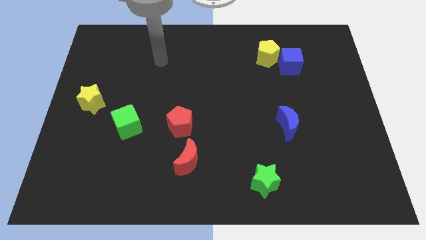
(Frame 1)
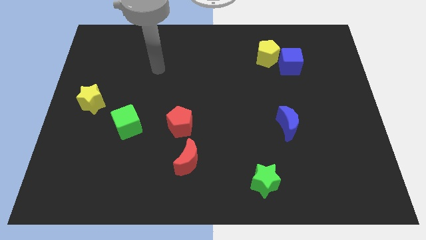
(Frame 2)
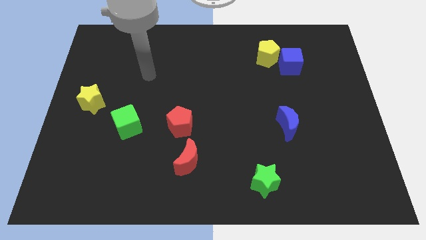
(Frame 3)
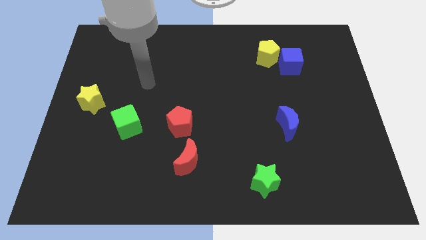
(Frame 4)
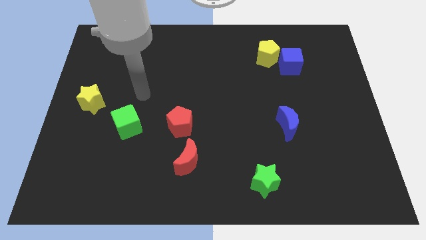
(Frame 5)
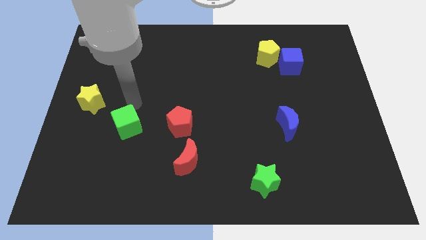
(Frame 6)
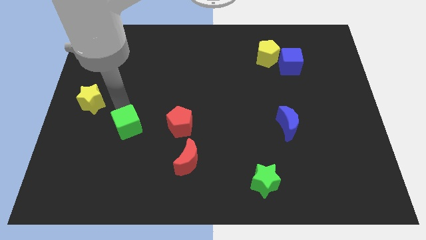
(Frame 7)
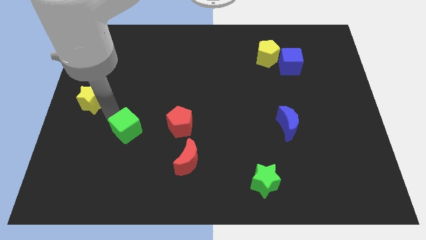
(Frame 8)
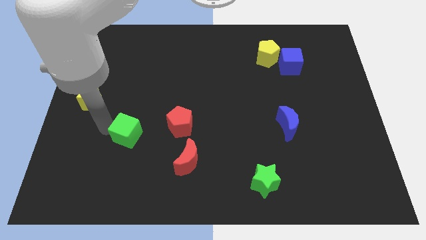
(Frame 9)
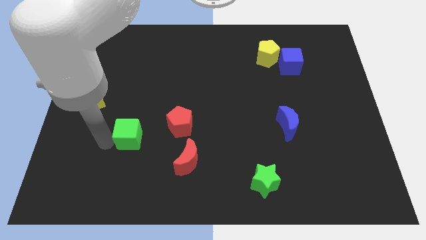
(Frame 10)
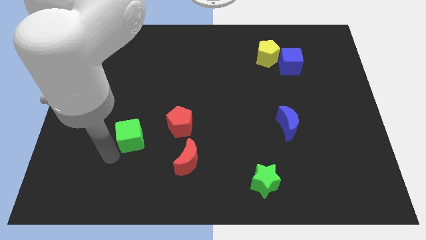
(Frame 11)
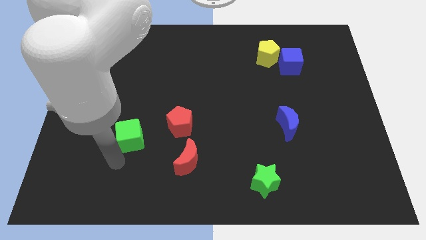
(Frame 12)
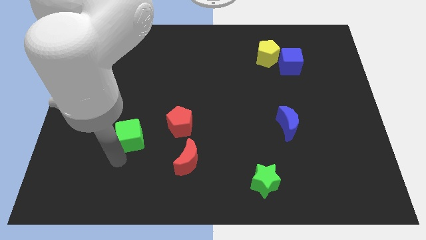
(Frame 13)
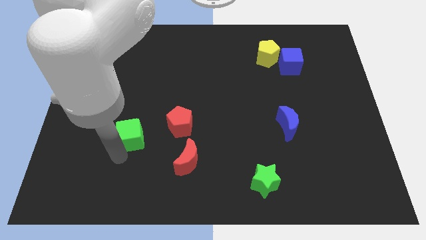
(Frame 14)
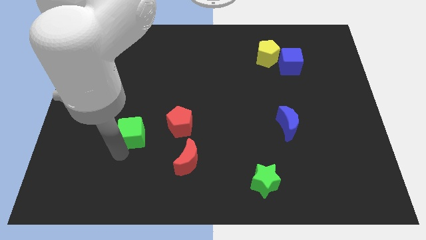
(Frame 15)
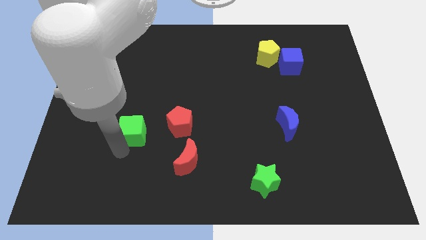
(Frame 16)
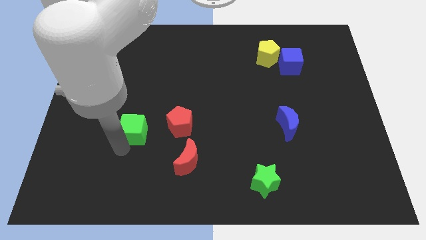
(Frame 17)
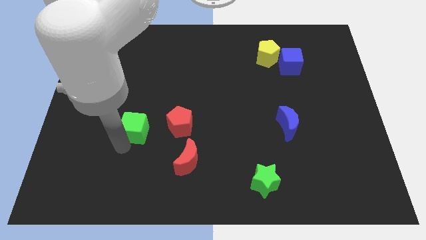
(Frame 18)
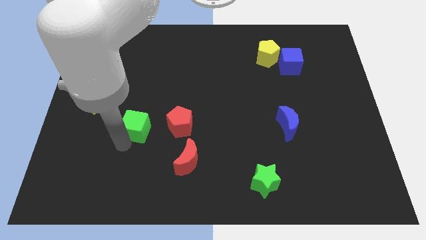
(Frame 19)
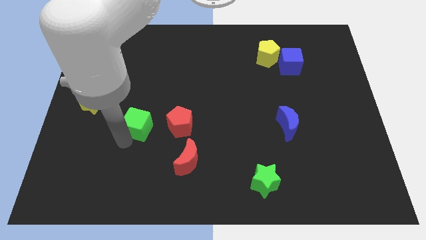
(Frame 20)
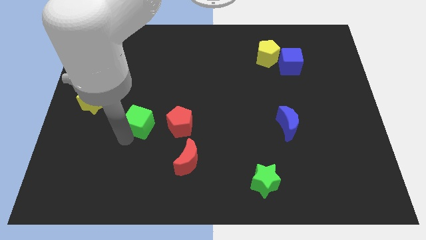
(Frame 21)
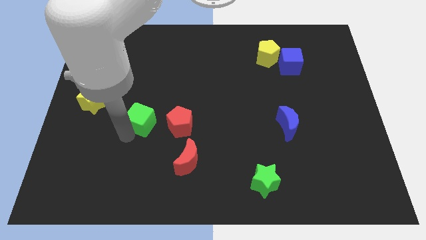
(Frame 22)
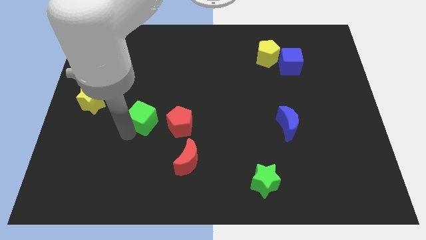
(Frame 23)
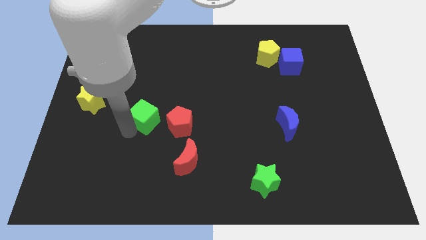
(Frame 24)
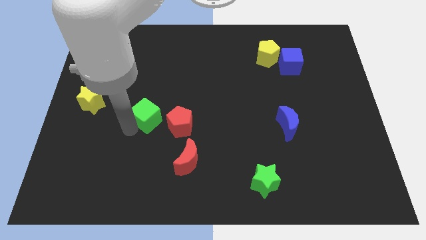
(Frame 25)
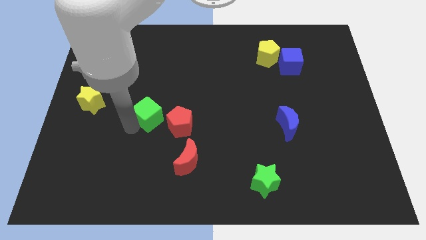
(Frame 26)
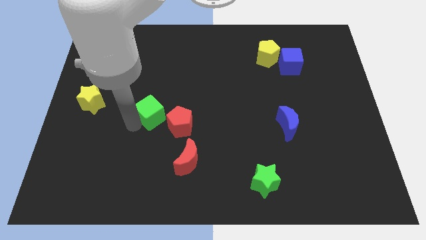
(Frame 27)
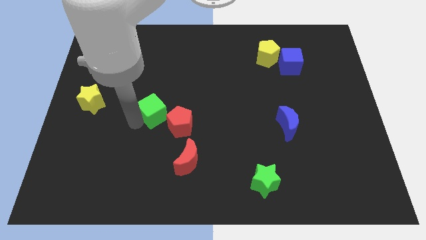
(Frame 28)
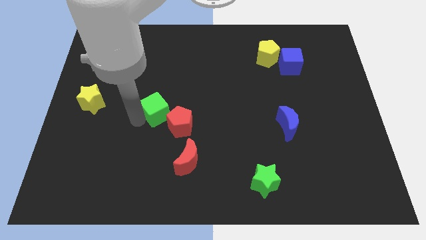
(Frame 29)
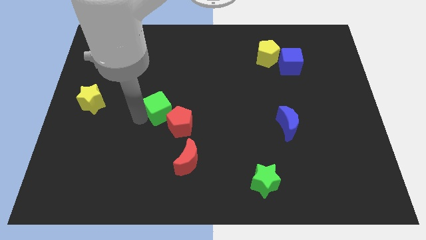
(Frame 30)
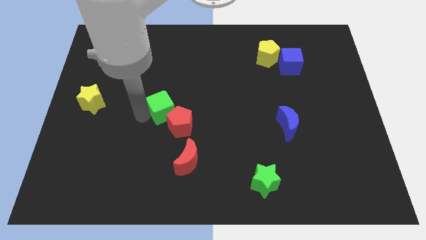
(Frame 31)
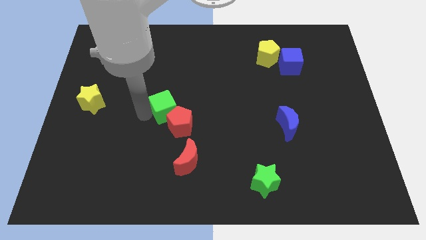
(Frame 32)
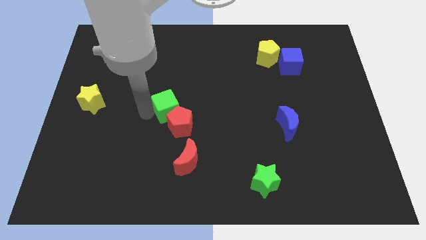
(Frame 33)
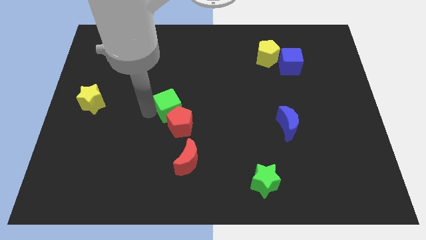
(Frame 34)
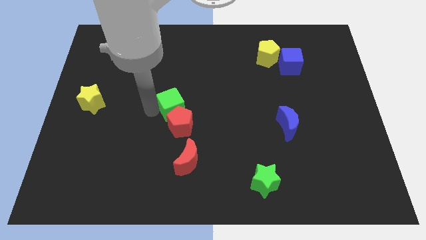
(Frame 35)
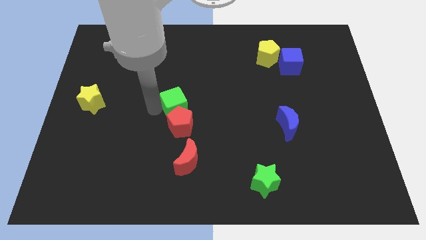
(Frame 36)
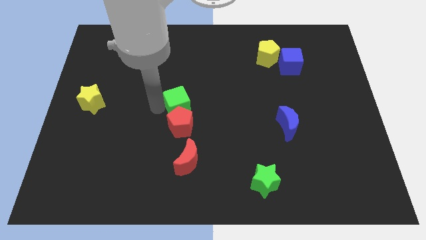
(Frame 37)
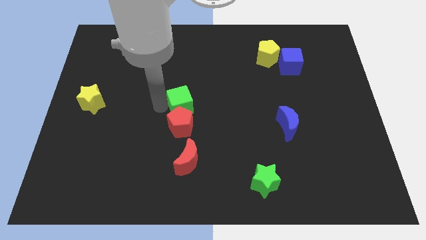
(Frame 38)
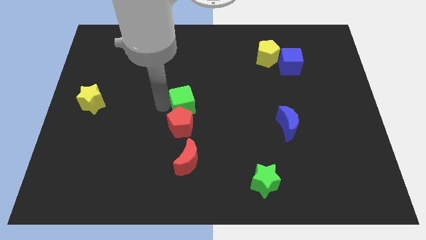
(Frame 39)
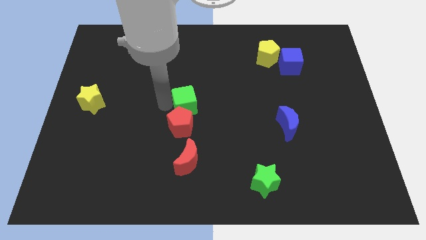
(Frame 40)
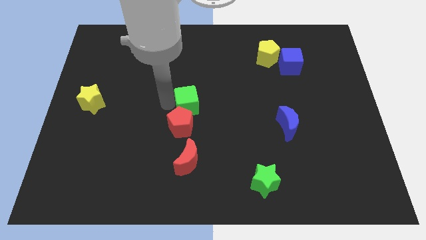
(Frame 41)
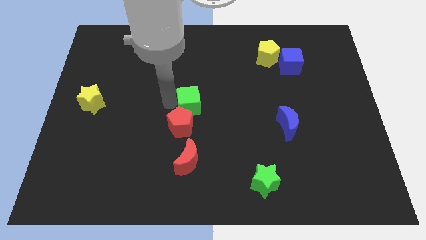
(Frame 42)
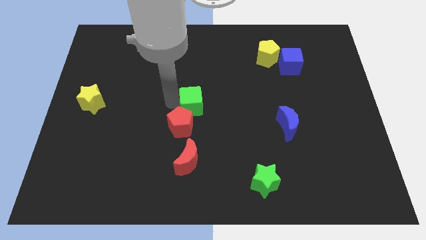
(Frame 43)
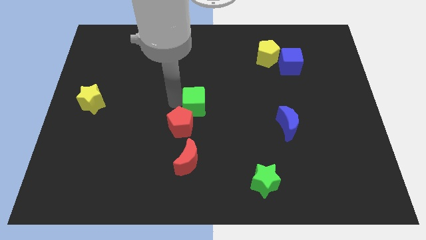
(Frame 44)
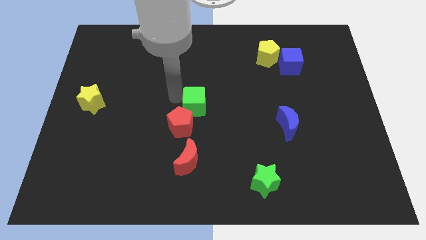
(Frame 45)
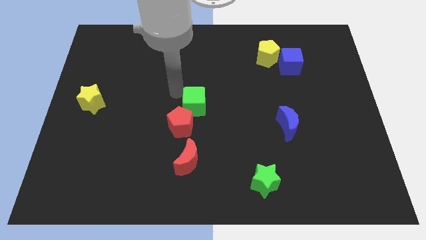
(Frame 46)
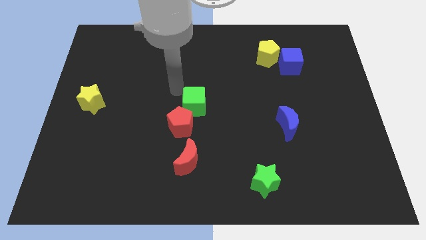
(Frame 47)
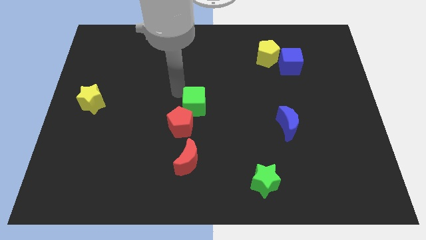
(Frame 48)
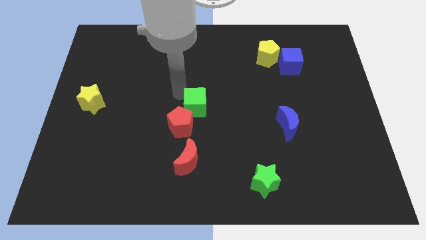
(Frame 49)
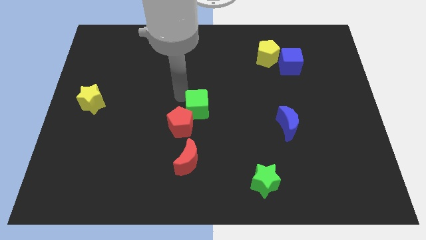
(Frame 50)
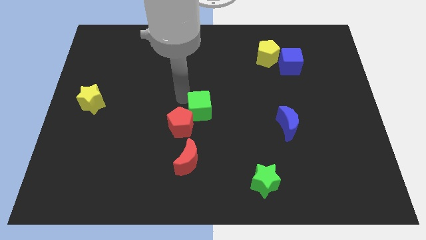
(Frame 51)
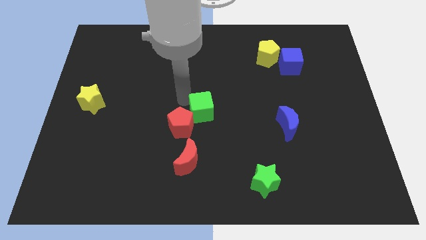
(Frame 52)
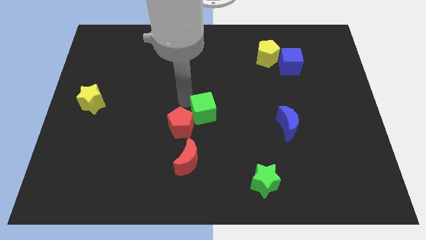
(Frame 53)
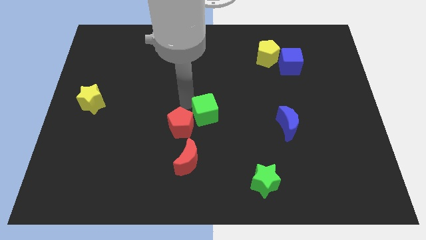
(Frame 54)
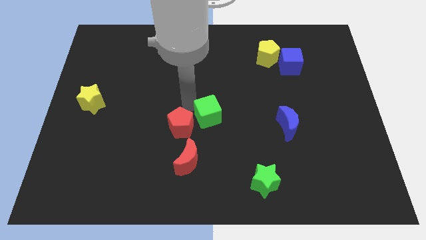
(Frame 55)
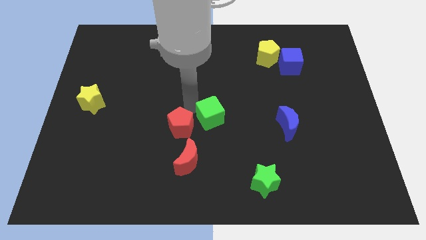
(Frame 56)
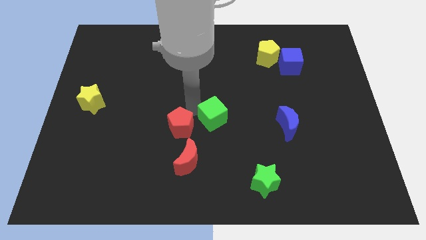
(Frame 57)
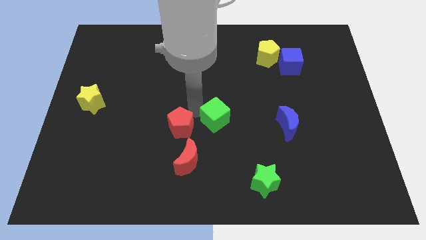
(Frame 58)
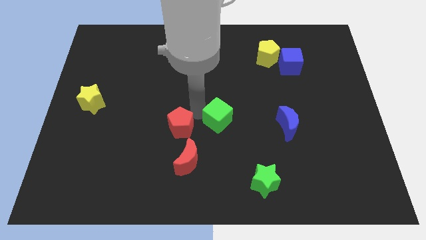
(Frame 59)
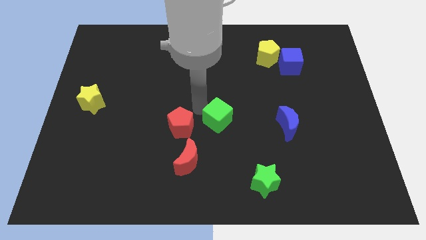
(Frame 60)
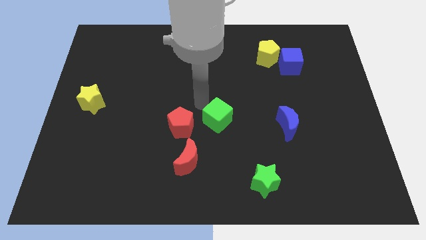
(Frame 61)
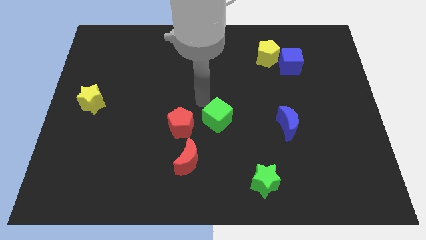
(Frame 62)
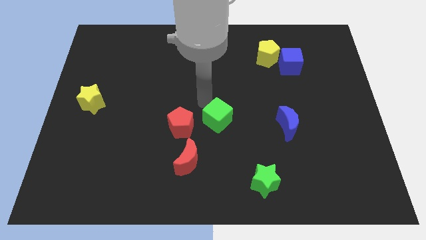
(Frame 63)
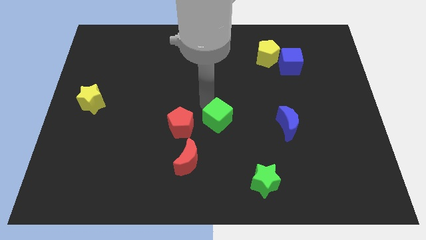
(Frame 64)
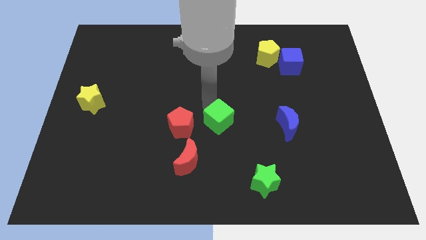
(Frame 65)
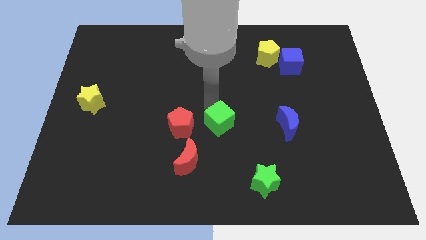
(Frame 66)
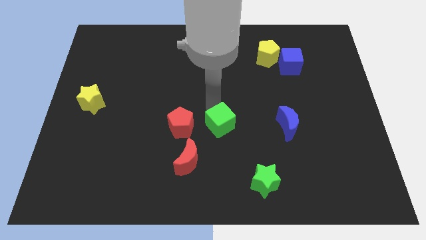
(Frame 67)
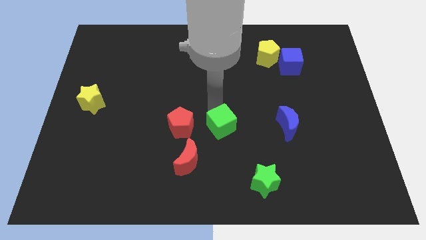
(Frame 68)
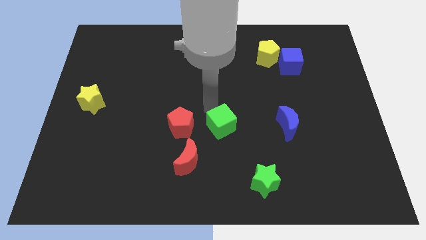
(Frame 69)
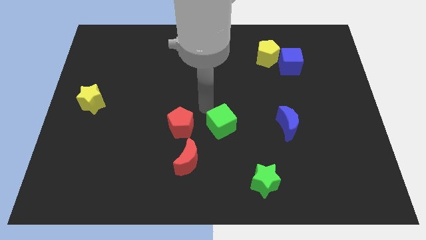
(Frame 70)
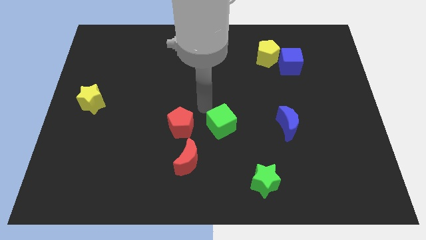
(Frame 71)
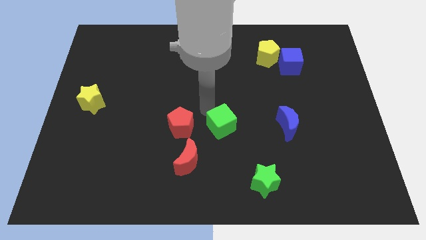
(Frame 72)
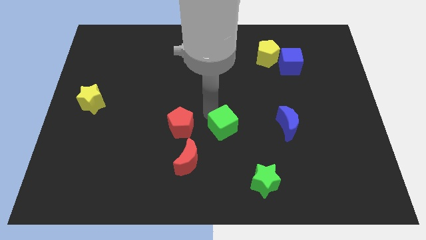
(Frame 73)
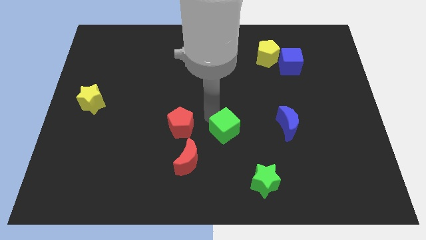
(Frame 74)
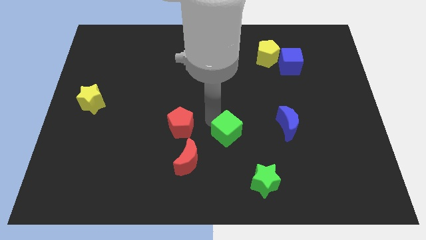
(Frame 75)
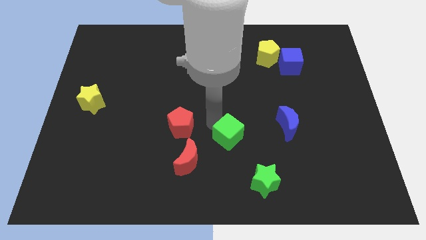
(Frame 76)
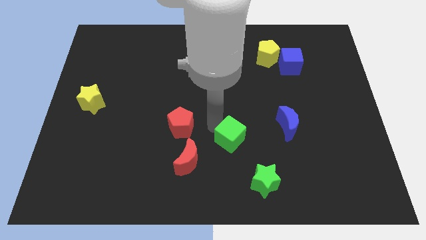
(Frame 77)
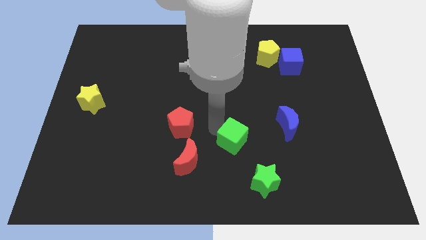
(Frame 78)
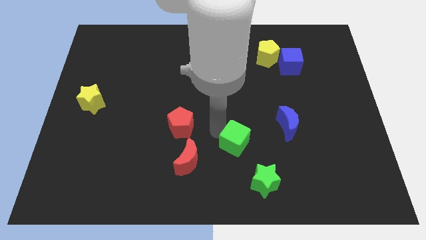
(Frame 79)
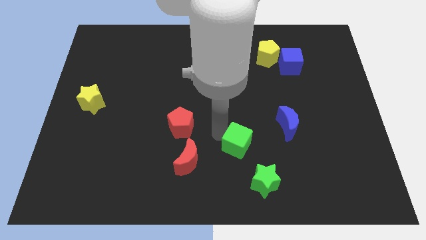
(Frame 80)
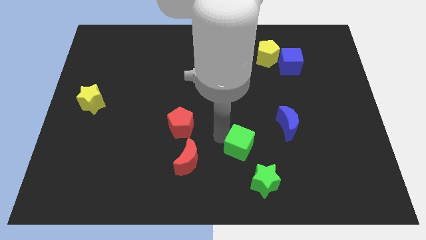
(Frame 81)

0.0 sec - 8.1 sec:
push the green cube above the green star
